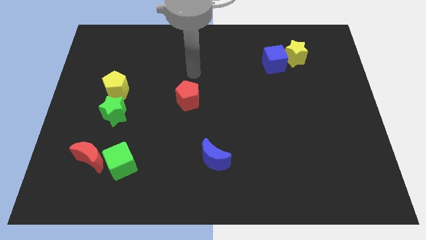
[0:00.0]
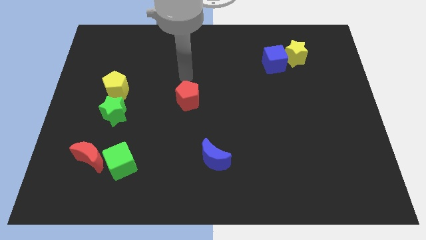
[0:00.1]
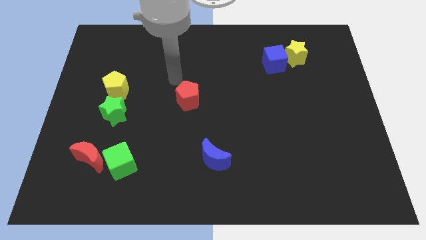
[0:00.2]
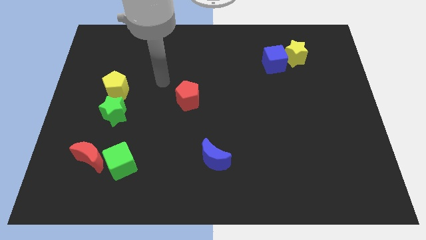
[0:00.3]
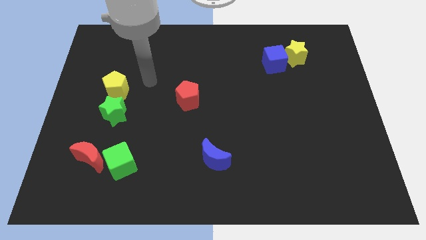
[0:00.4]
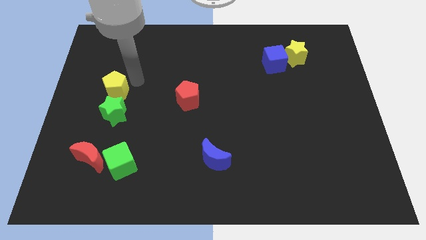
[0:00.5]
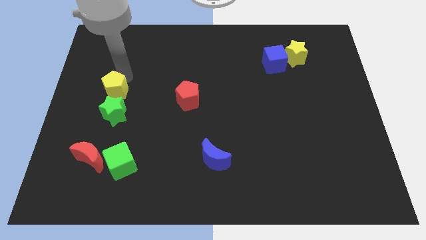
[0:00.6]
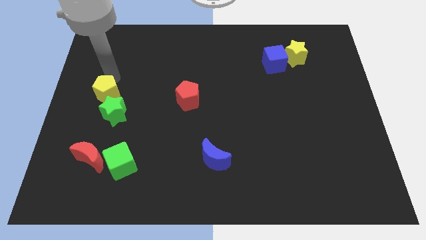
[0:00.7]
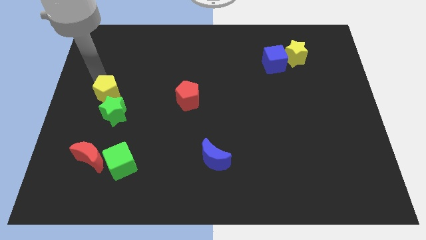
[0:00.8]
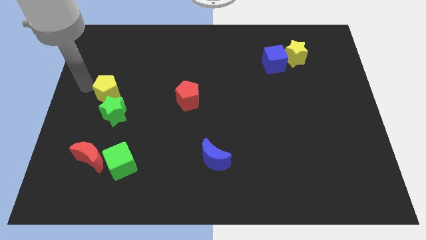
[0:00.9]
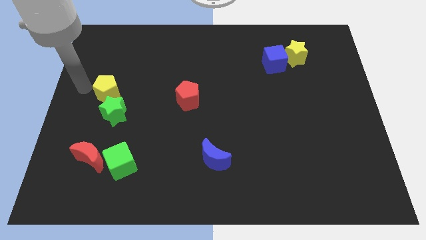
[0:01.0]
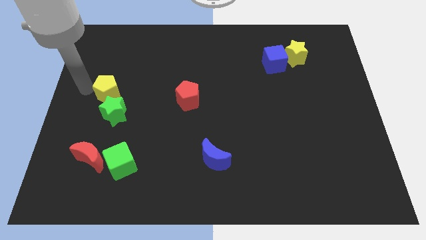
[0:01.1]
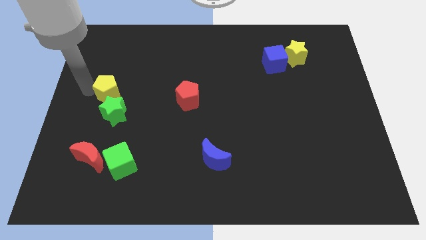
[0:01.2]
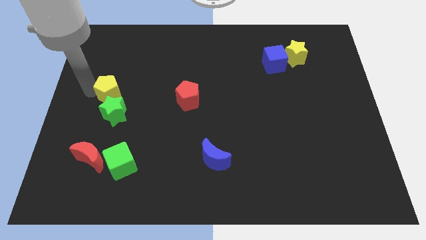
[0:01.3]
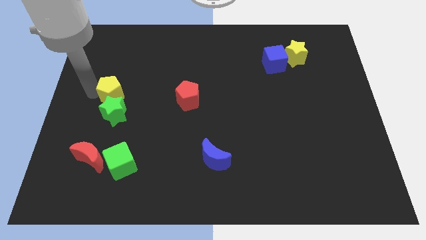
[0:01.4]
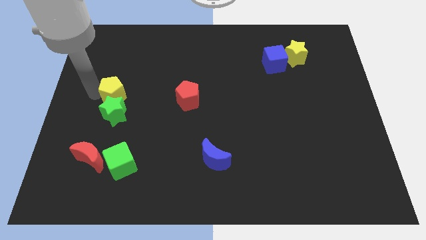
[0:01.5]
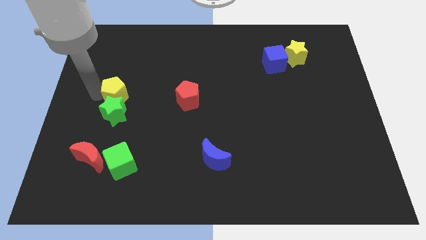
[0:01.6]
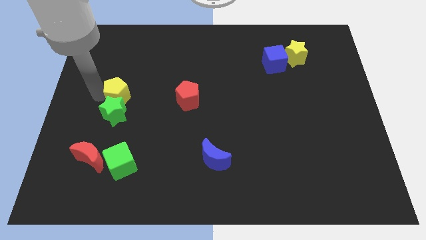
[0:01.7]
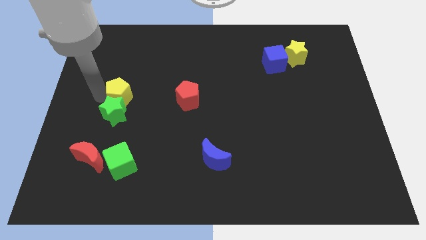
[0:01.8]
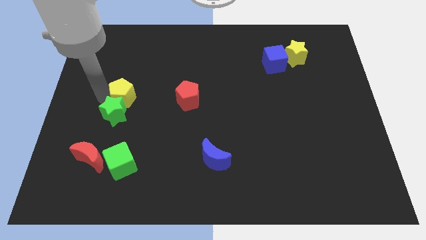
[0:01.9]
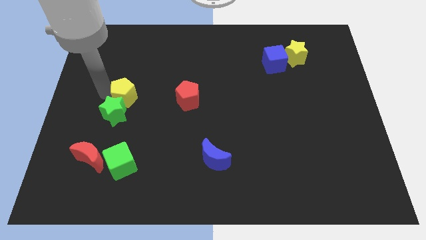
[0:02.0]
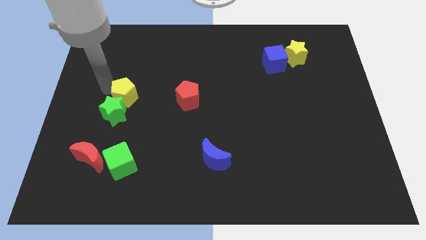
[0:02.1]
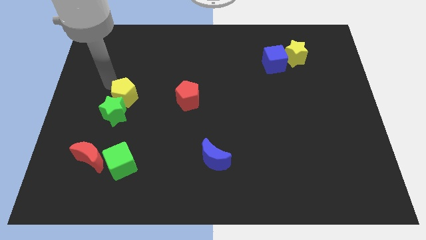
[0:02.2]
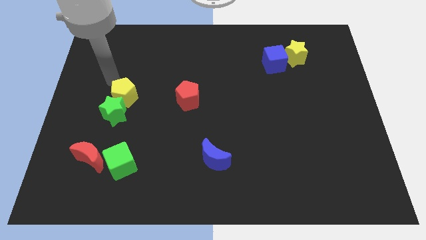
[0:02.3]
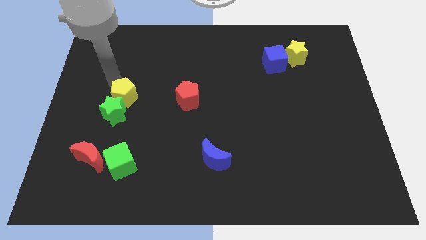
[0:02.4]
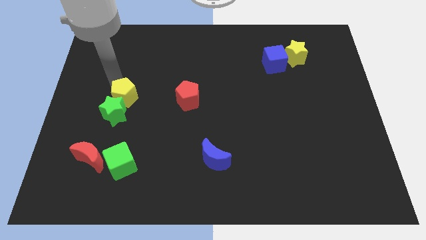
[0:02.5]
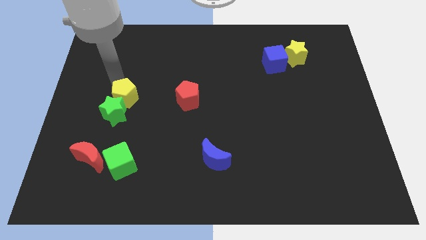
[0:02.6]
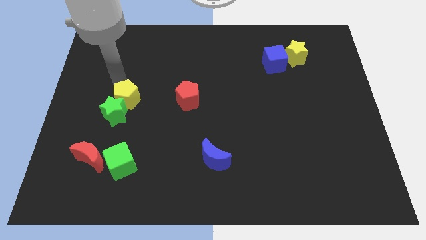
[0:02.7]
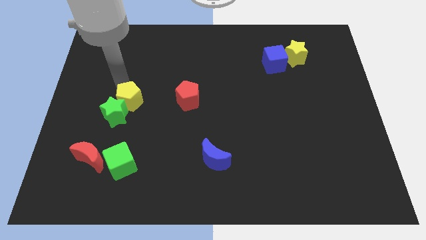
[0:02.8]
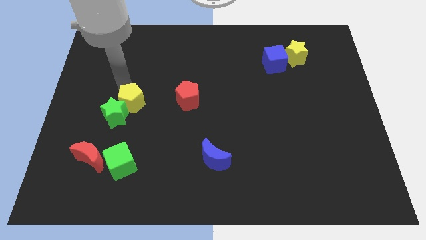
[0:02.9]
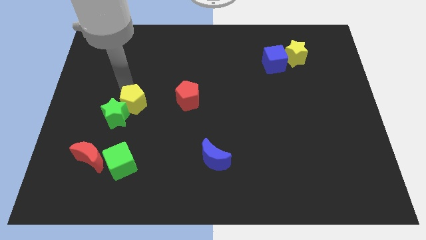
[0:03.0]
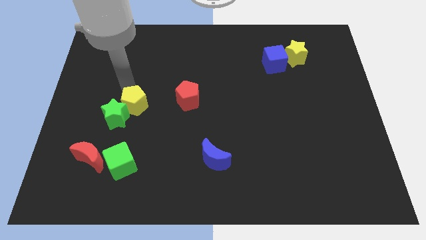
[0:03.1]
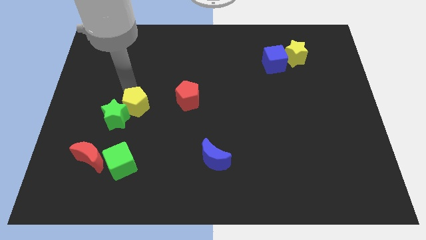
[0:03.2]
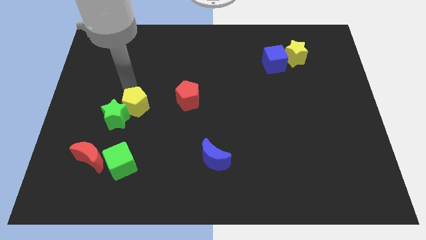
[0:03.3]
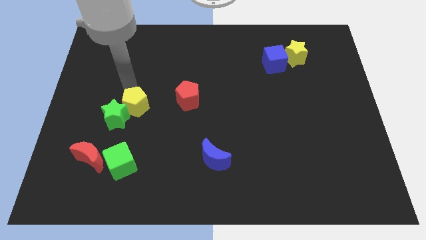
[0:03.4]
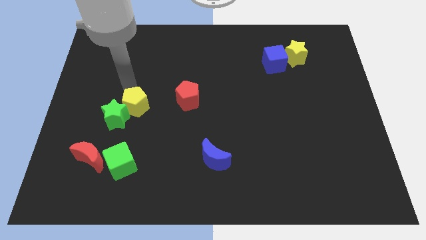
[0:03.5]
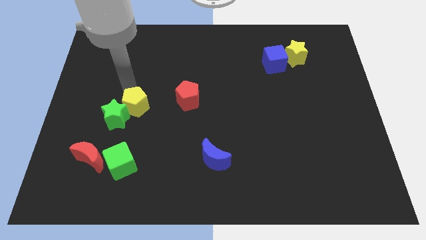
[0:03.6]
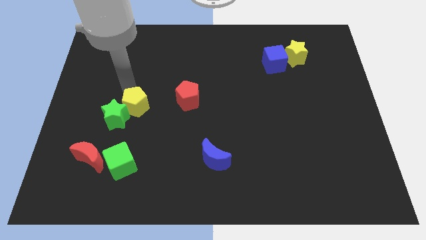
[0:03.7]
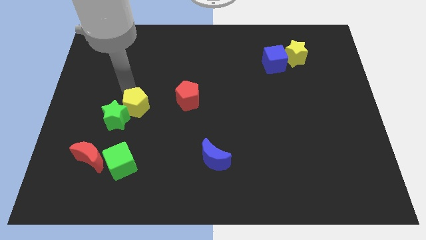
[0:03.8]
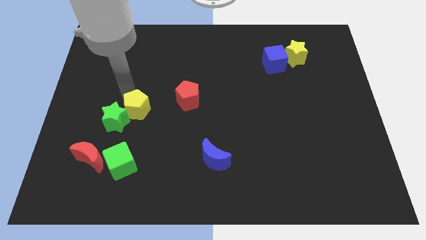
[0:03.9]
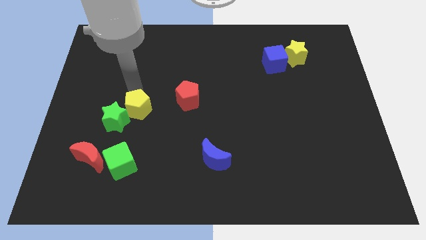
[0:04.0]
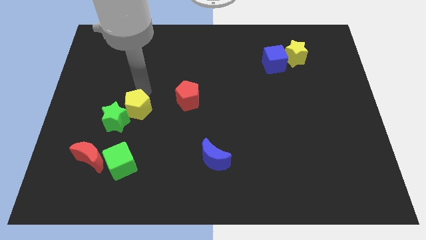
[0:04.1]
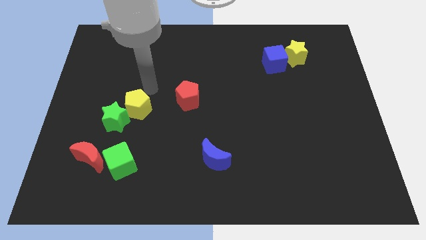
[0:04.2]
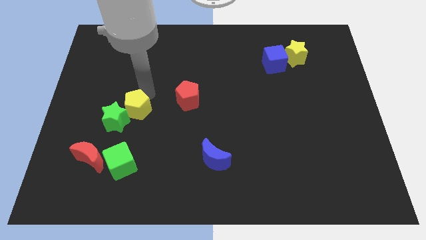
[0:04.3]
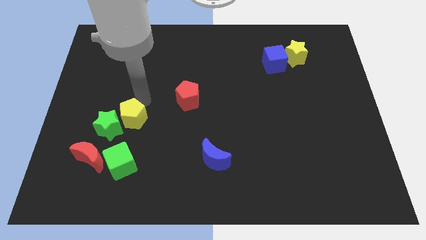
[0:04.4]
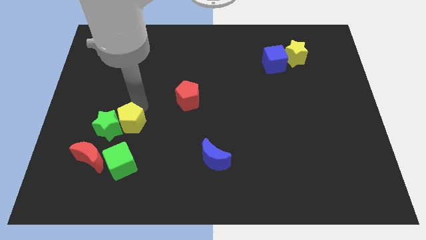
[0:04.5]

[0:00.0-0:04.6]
slide the yellow pentagon diagonally up and to the right of the red moon

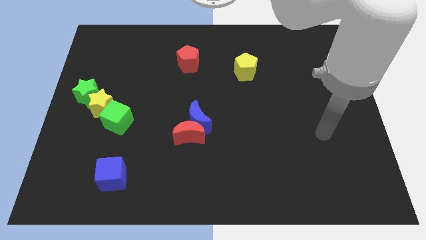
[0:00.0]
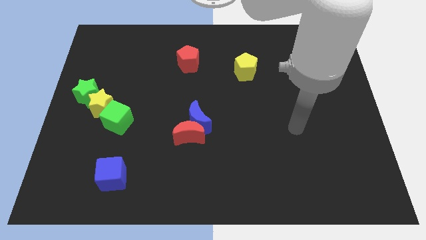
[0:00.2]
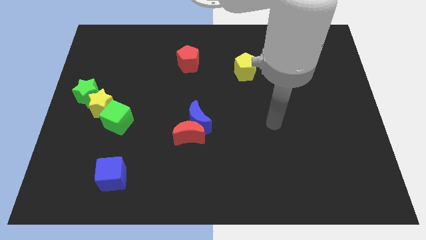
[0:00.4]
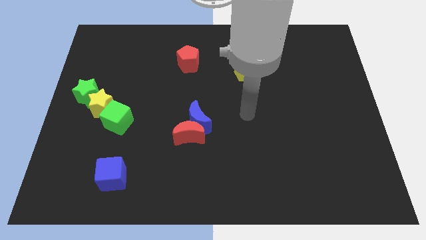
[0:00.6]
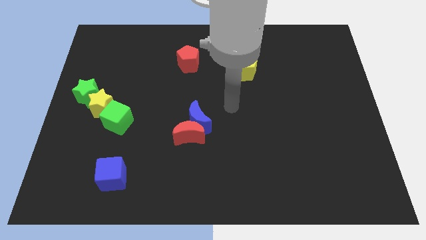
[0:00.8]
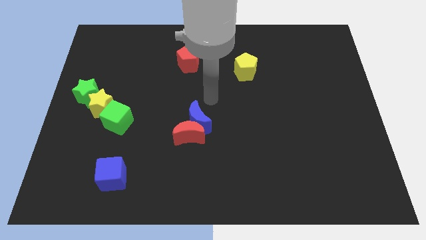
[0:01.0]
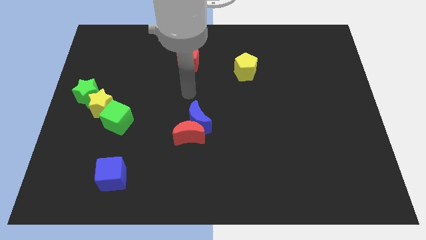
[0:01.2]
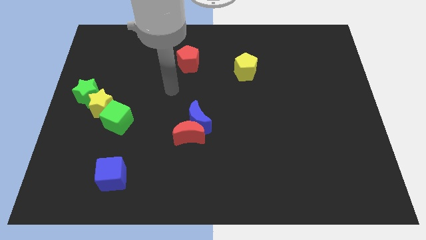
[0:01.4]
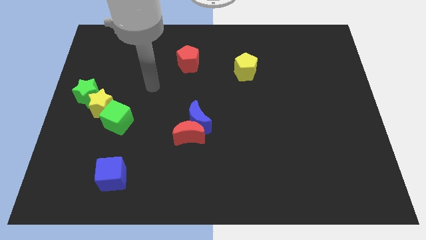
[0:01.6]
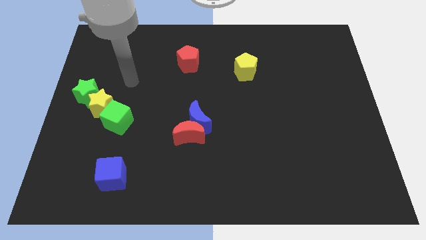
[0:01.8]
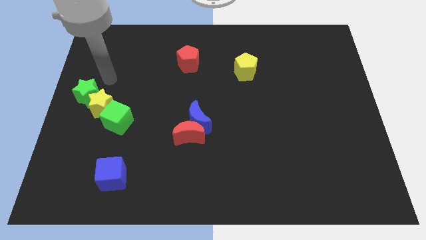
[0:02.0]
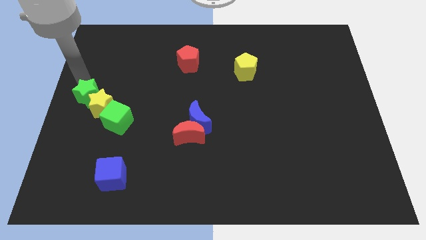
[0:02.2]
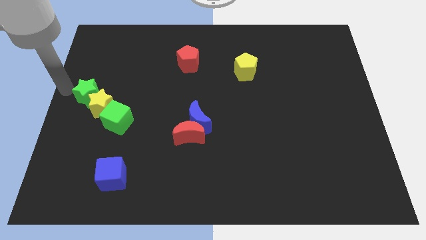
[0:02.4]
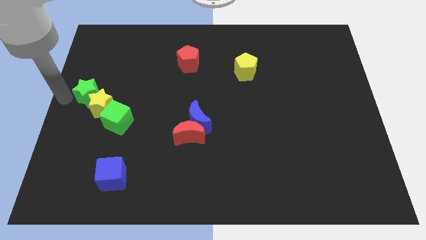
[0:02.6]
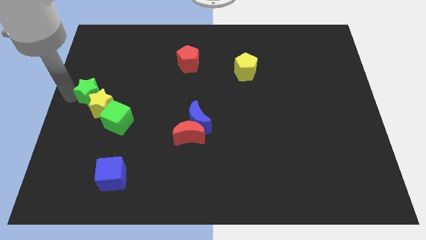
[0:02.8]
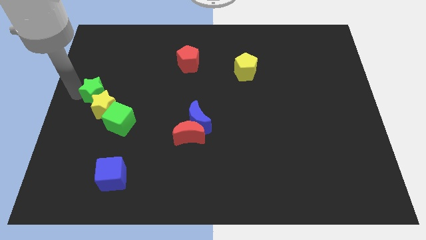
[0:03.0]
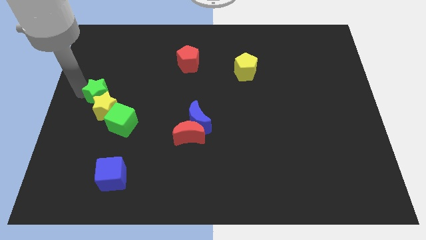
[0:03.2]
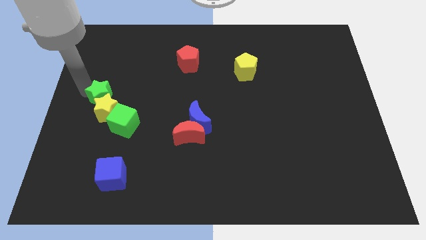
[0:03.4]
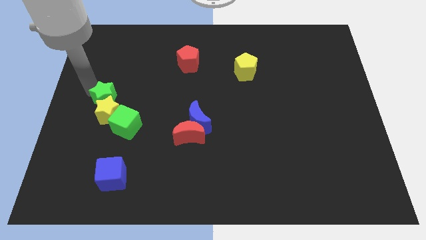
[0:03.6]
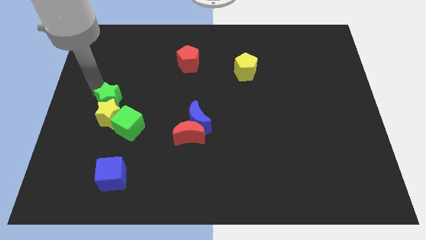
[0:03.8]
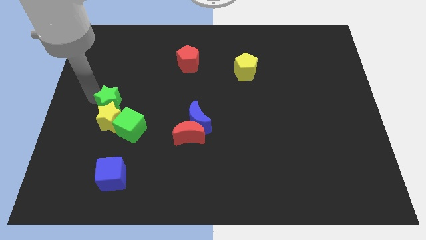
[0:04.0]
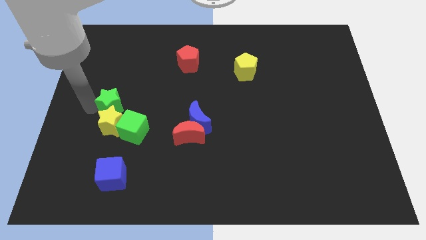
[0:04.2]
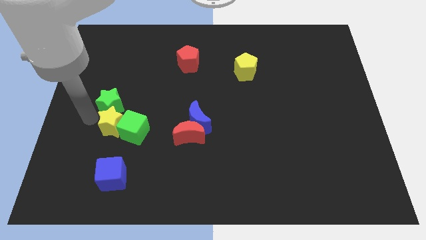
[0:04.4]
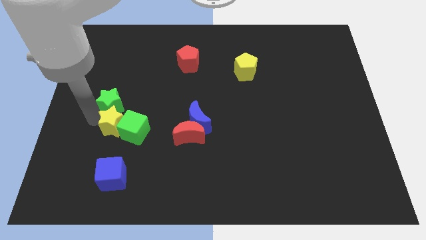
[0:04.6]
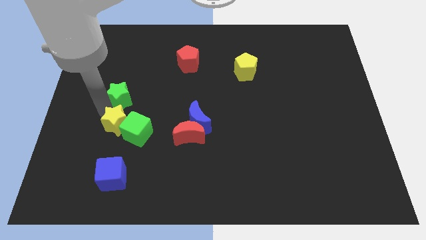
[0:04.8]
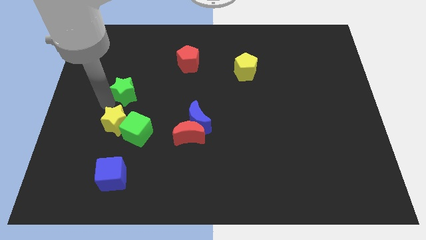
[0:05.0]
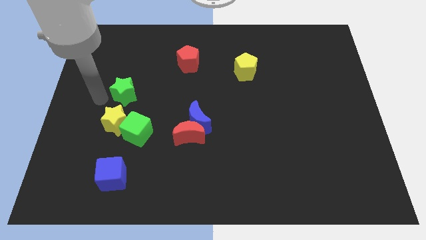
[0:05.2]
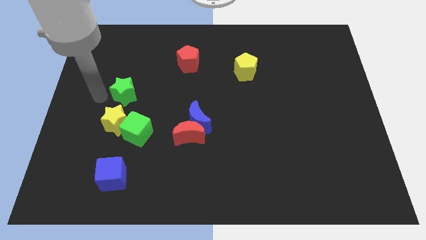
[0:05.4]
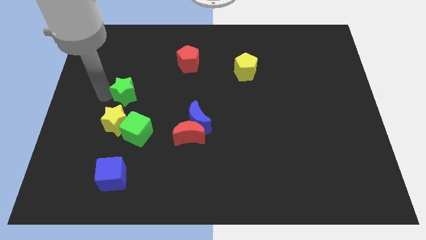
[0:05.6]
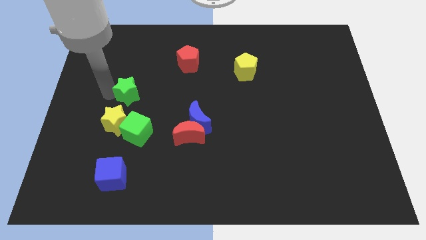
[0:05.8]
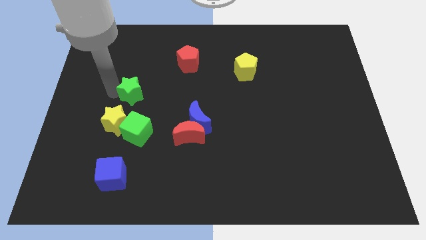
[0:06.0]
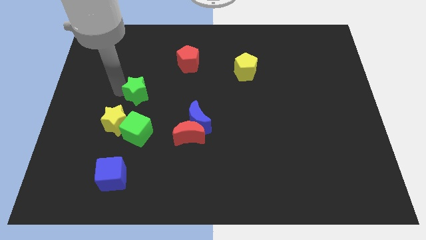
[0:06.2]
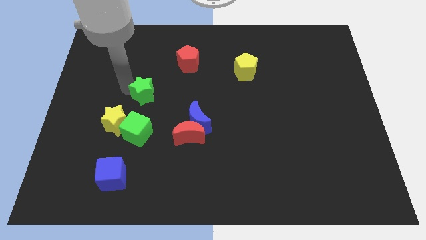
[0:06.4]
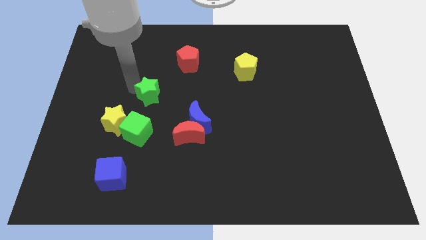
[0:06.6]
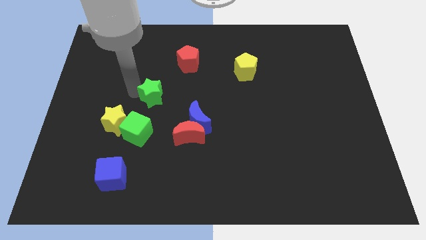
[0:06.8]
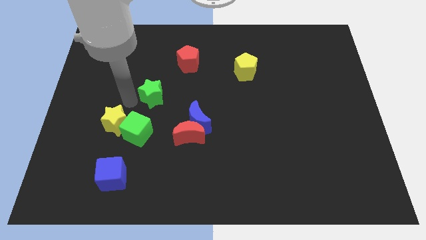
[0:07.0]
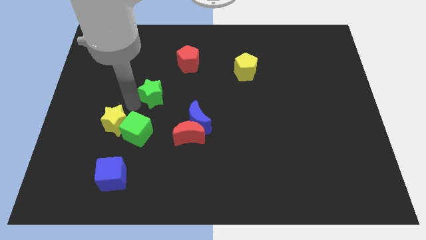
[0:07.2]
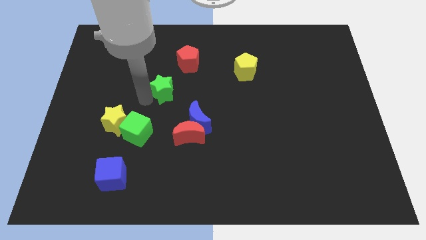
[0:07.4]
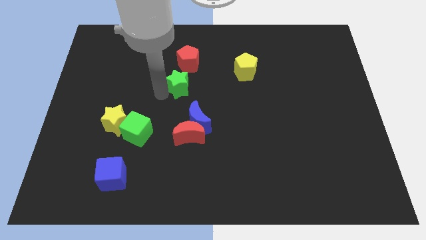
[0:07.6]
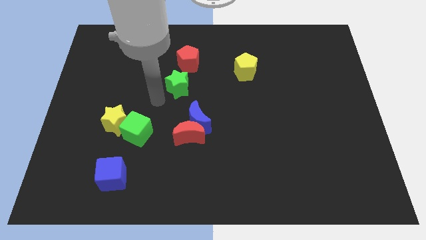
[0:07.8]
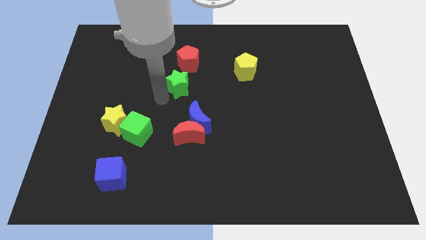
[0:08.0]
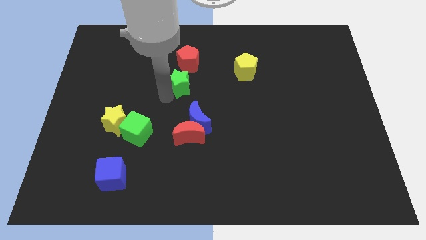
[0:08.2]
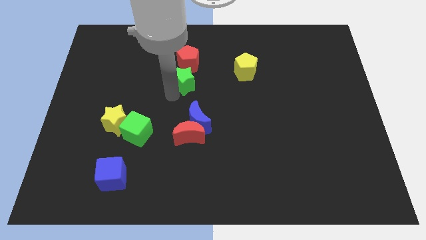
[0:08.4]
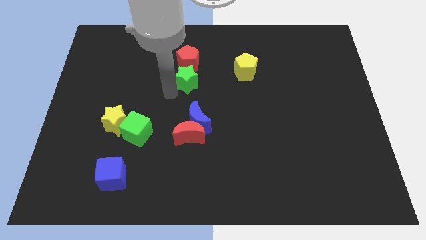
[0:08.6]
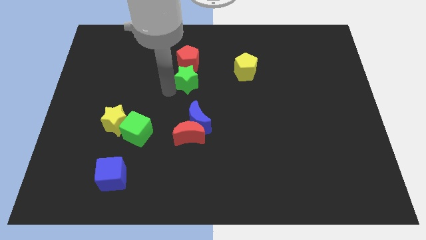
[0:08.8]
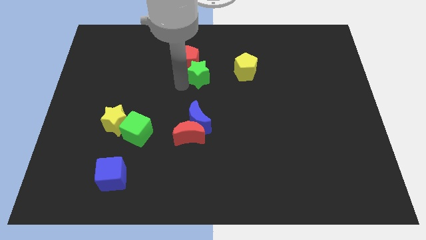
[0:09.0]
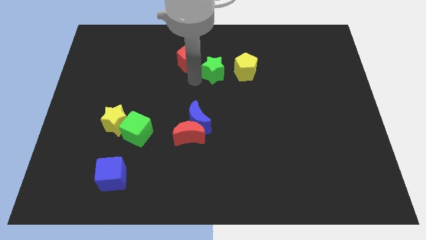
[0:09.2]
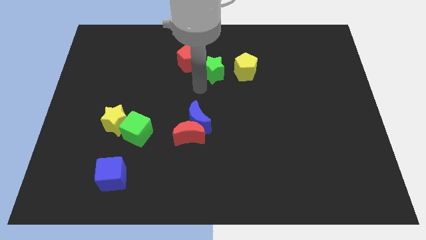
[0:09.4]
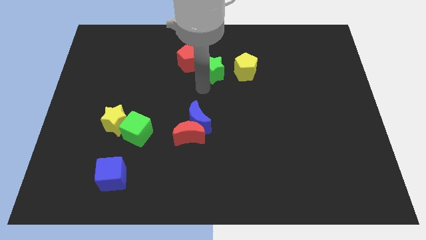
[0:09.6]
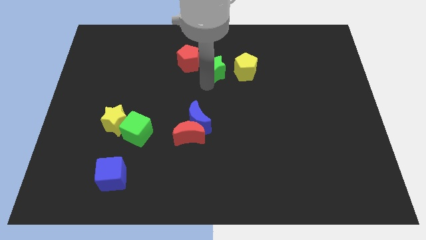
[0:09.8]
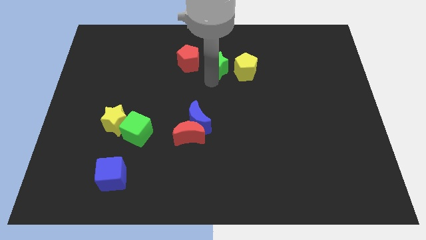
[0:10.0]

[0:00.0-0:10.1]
move the green star to the top left side of the yellow pentagon
